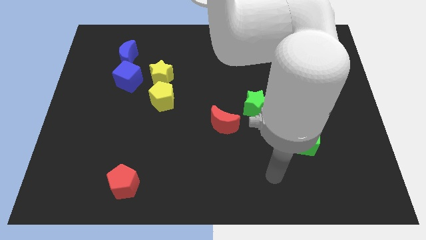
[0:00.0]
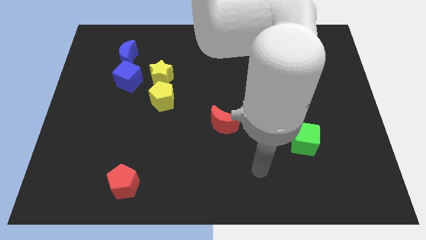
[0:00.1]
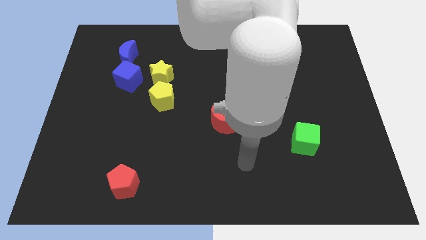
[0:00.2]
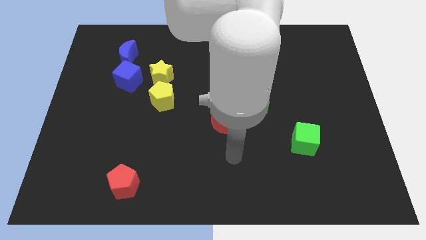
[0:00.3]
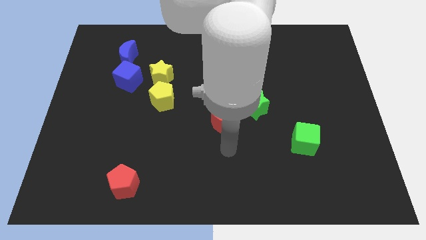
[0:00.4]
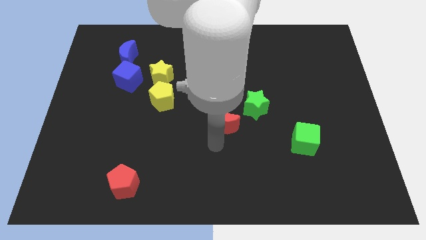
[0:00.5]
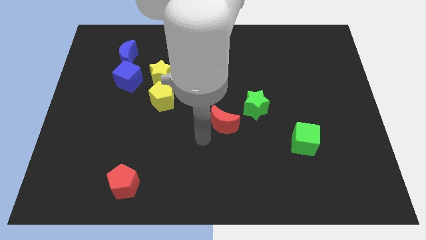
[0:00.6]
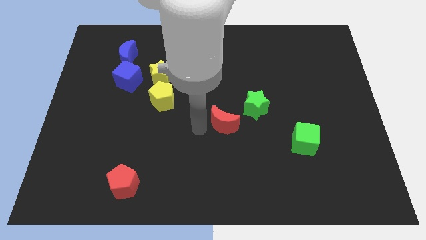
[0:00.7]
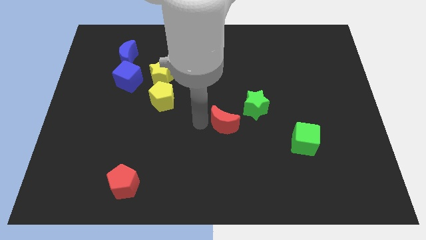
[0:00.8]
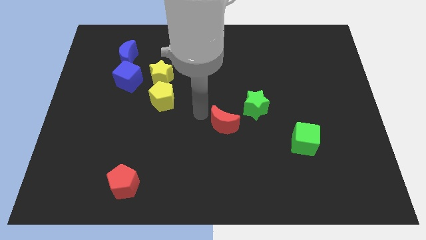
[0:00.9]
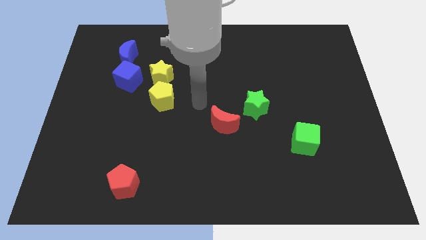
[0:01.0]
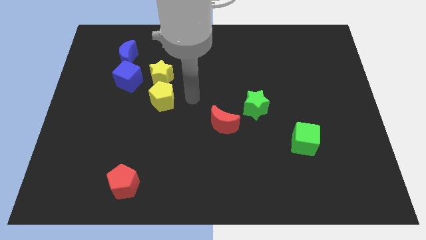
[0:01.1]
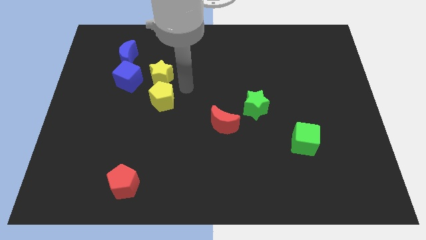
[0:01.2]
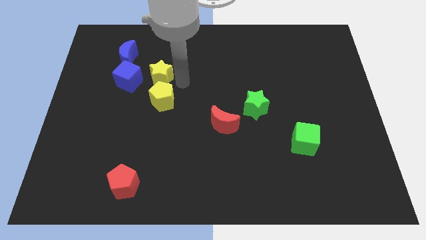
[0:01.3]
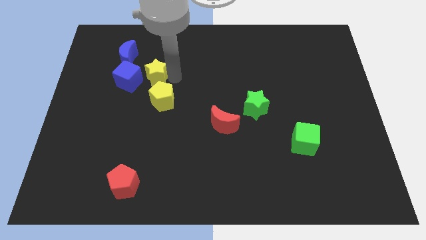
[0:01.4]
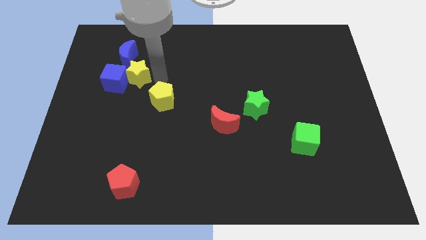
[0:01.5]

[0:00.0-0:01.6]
move the yellow pentagon away from the yellow star

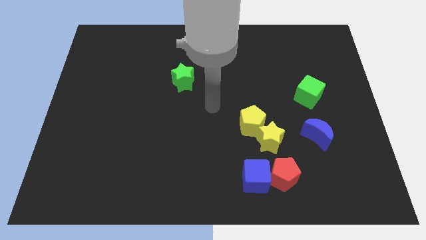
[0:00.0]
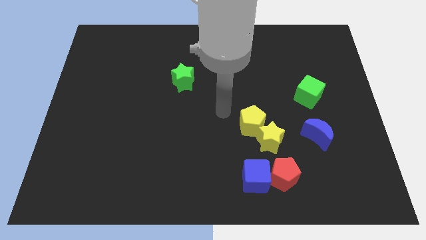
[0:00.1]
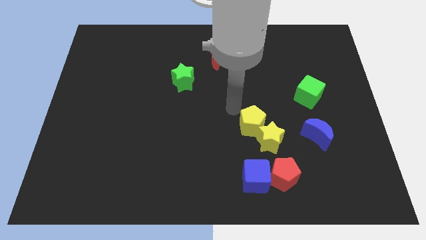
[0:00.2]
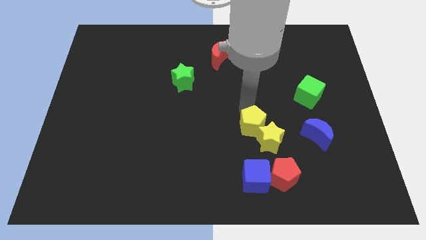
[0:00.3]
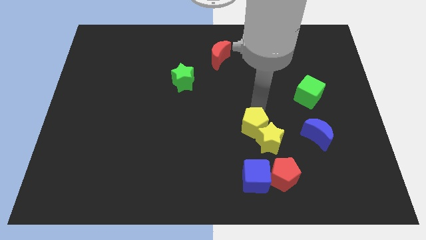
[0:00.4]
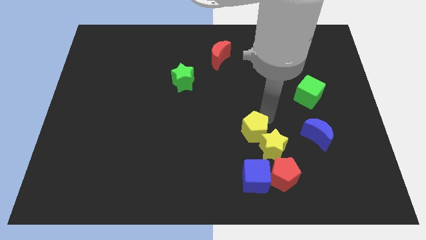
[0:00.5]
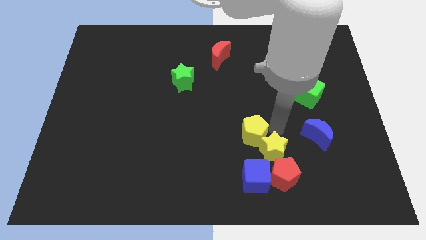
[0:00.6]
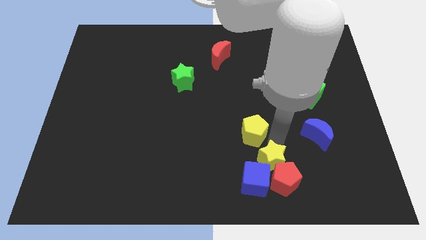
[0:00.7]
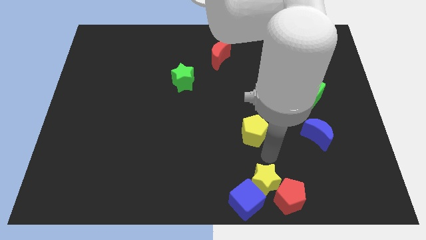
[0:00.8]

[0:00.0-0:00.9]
pull the yellow pentagon apart from the yellow star

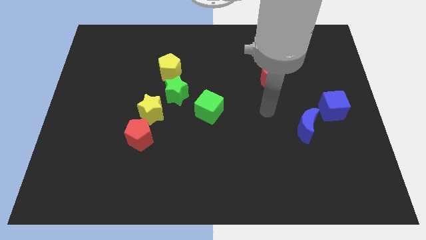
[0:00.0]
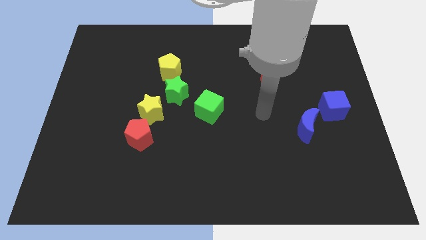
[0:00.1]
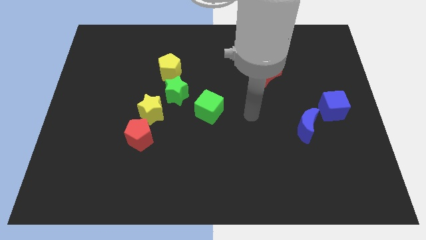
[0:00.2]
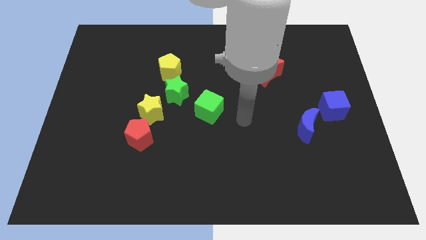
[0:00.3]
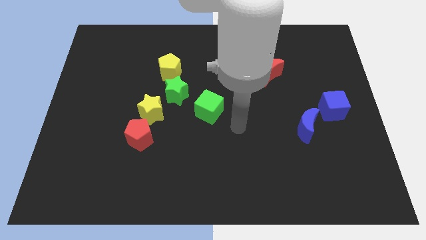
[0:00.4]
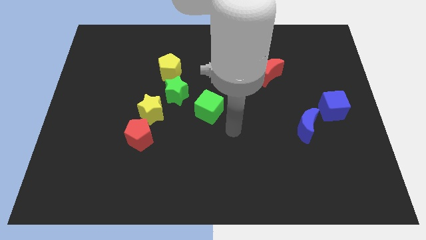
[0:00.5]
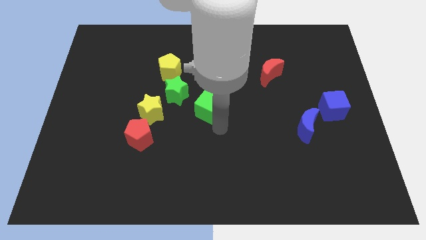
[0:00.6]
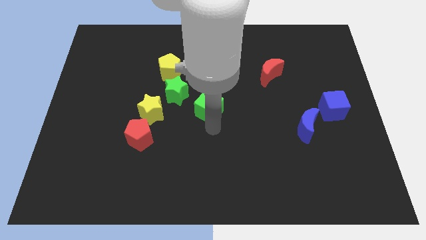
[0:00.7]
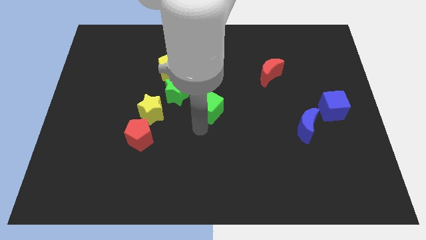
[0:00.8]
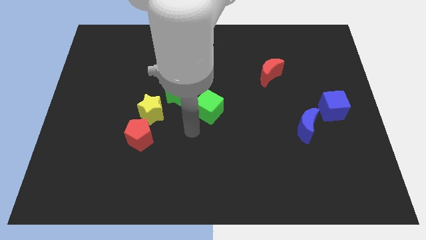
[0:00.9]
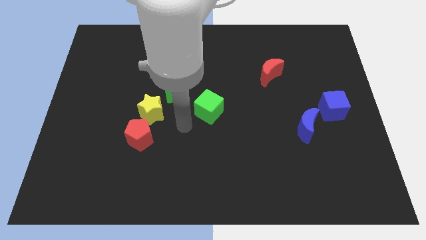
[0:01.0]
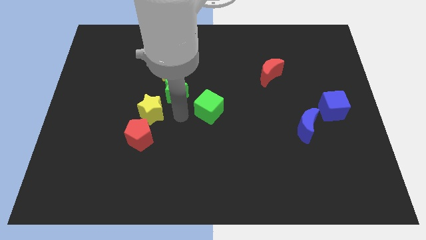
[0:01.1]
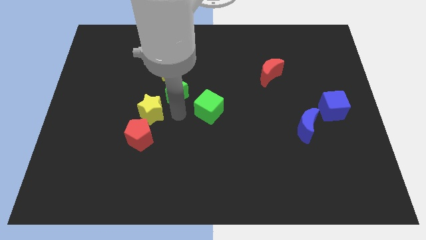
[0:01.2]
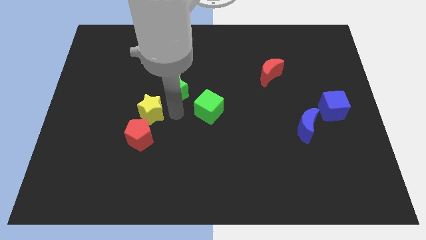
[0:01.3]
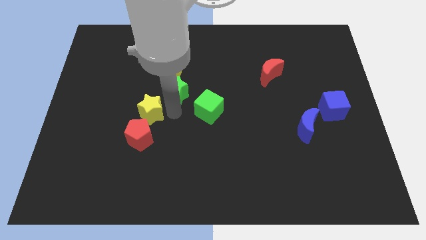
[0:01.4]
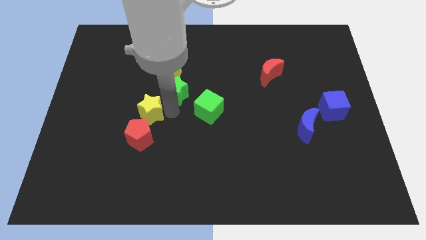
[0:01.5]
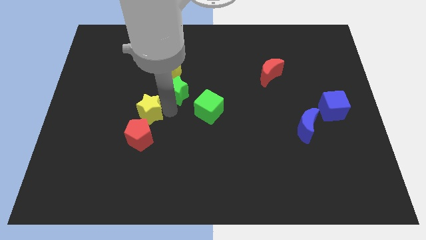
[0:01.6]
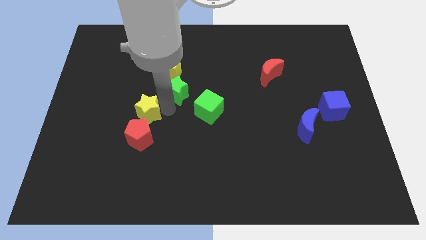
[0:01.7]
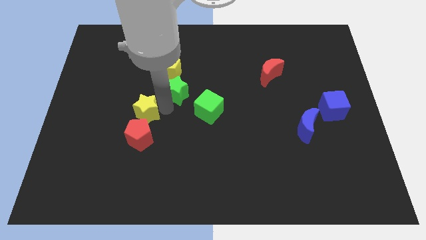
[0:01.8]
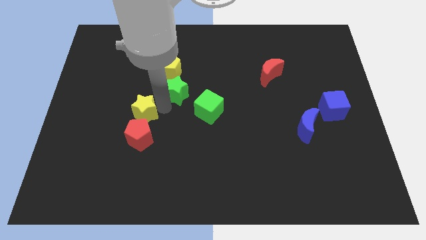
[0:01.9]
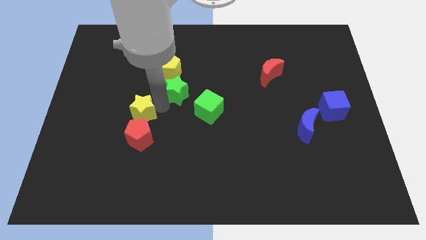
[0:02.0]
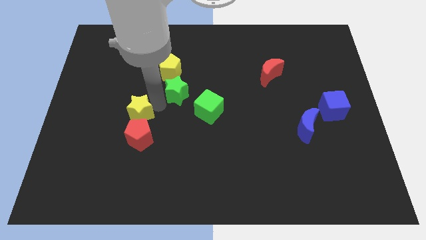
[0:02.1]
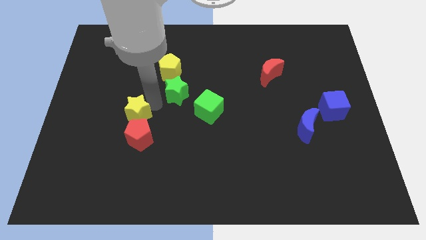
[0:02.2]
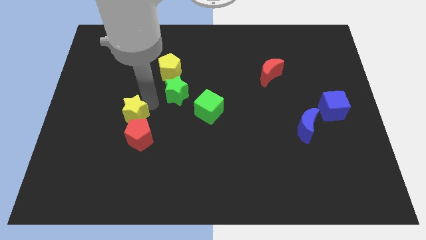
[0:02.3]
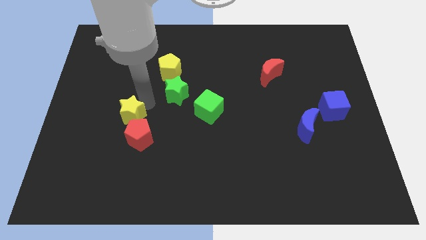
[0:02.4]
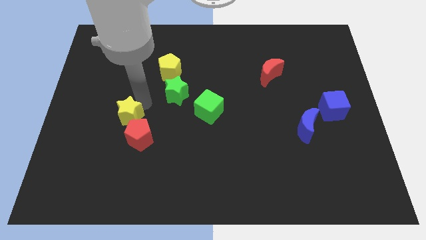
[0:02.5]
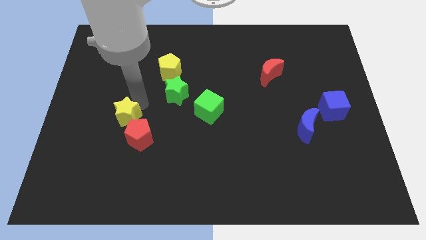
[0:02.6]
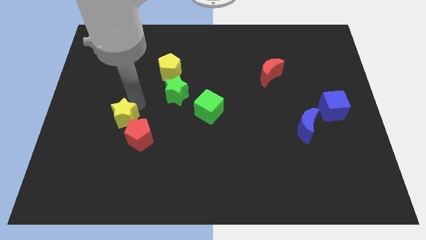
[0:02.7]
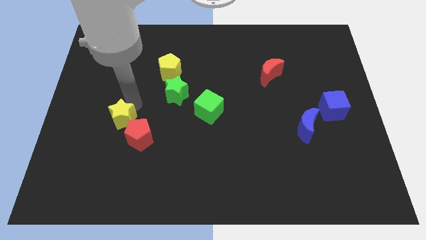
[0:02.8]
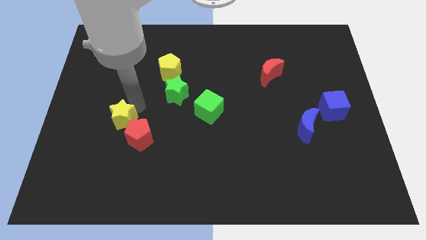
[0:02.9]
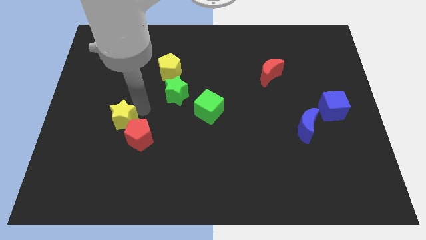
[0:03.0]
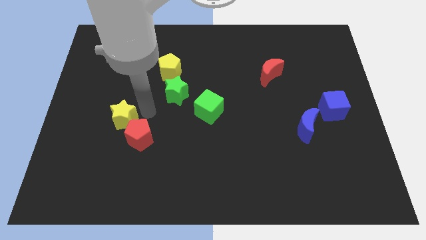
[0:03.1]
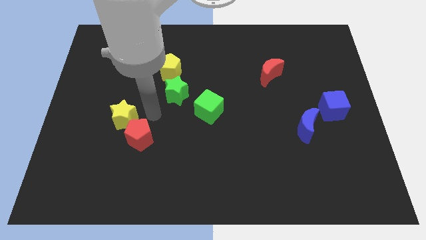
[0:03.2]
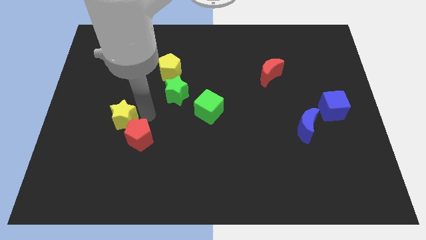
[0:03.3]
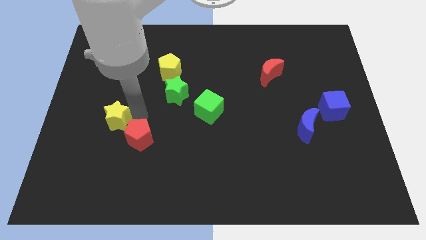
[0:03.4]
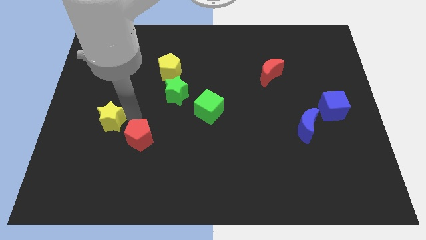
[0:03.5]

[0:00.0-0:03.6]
pull the yellow star apart from the green star and red pentagon

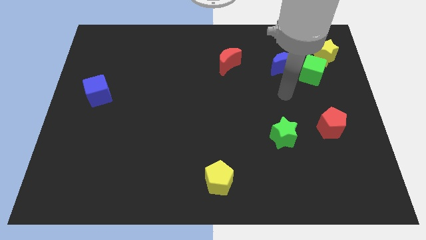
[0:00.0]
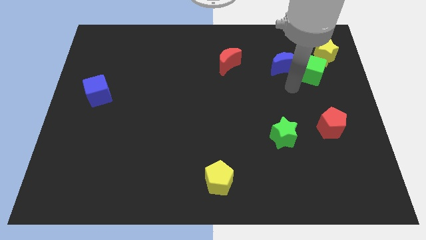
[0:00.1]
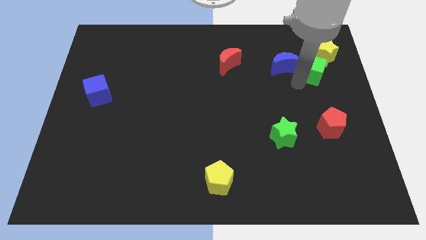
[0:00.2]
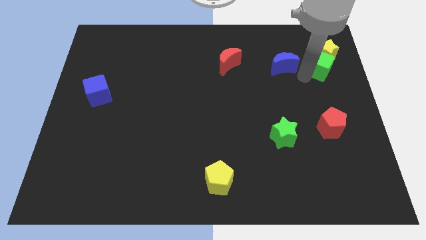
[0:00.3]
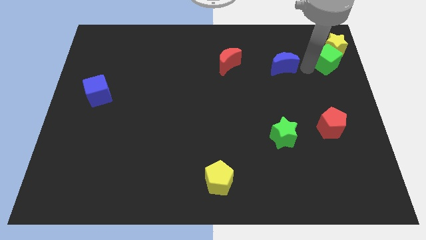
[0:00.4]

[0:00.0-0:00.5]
separate the blue moon from the green cube

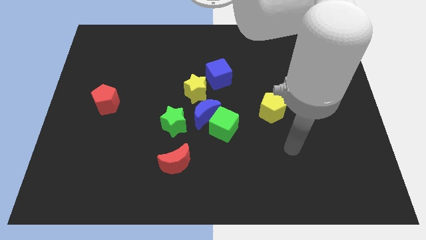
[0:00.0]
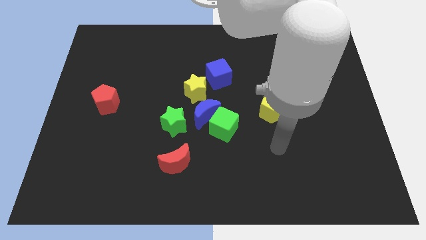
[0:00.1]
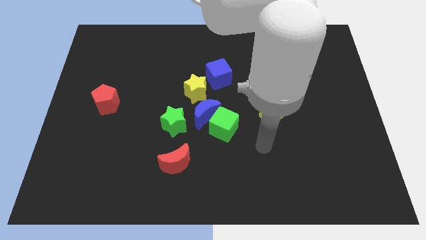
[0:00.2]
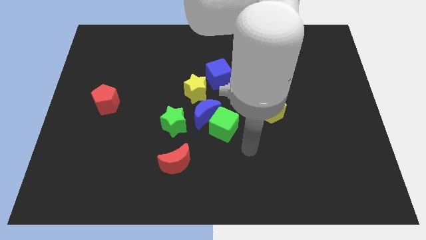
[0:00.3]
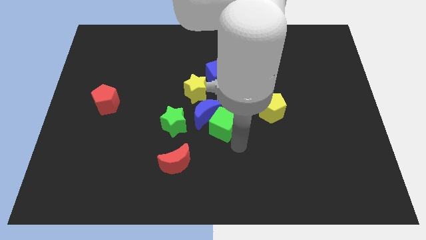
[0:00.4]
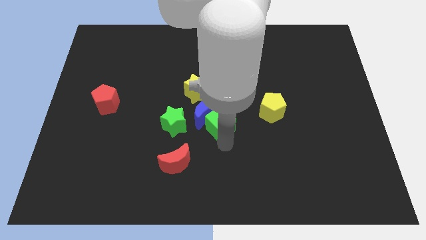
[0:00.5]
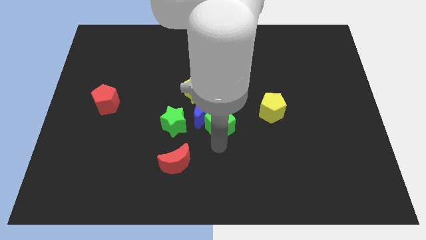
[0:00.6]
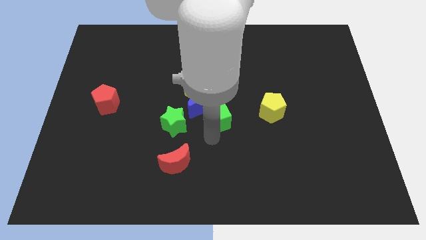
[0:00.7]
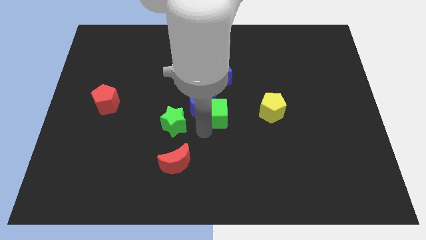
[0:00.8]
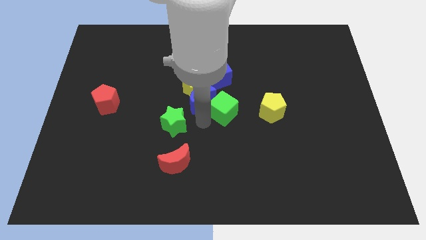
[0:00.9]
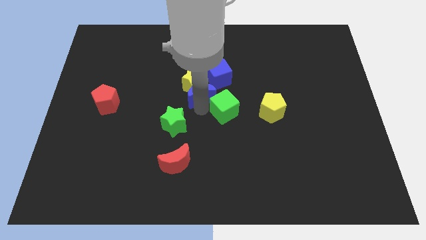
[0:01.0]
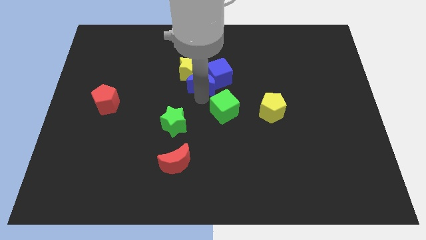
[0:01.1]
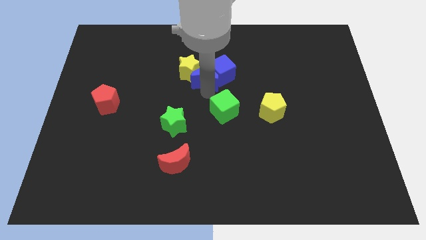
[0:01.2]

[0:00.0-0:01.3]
move the green cube away from the blue moon

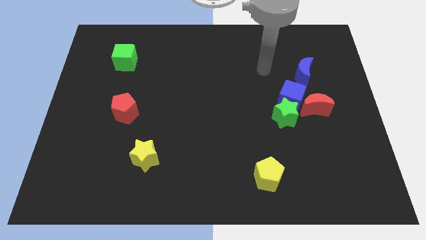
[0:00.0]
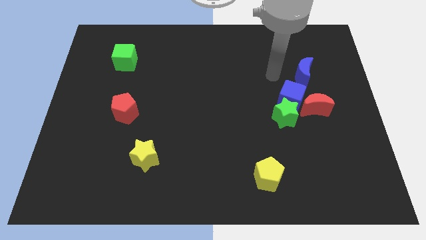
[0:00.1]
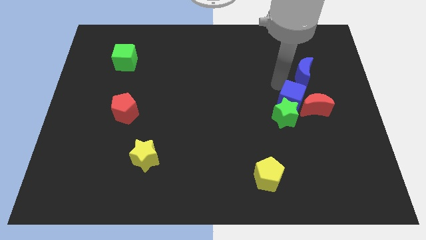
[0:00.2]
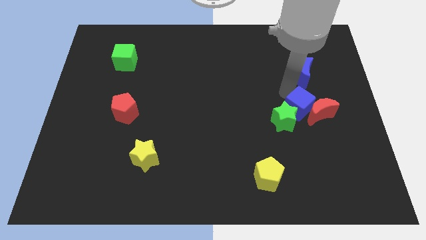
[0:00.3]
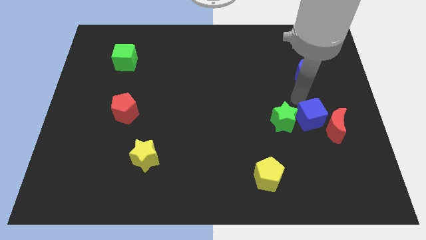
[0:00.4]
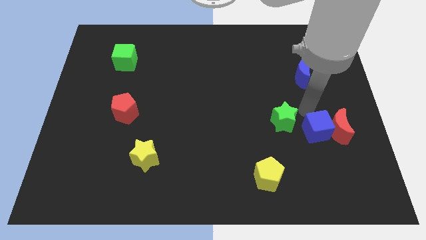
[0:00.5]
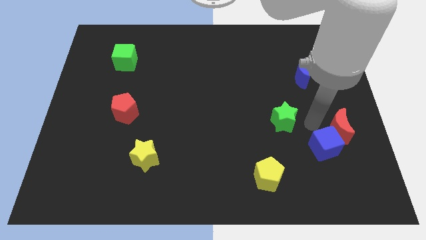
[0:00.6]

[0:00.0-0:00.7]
separate the green star from the blue cube and red moon

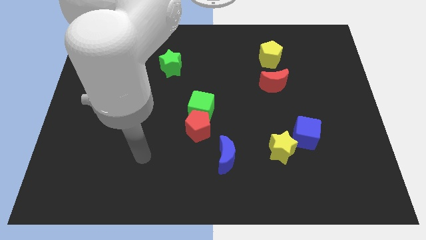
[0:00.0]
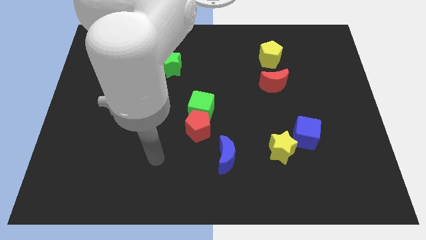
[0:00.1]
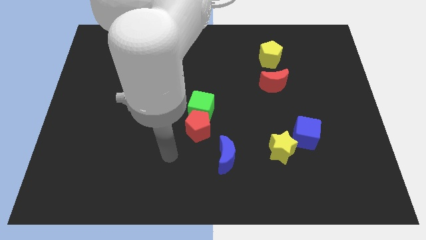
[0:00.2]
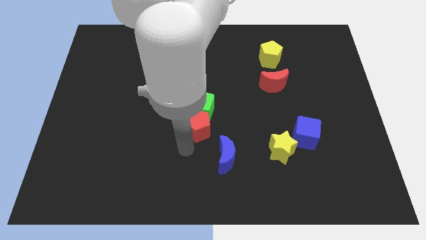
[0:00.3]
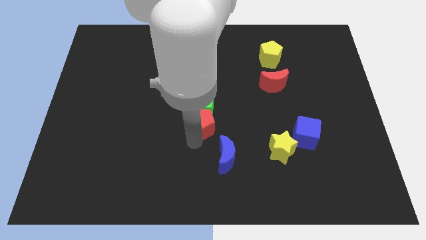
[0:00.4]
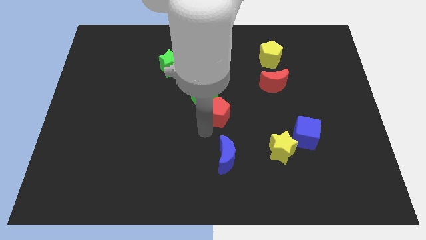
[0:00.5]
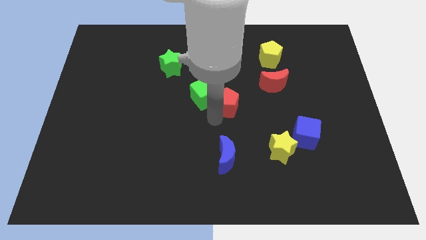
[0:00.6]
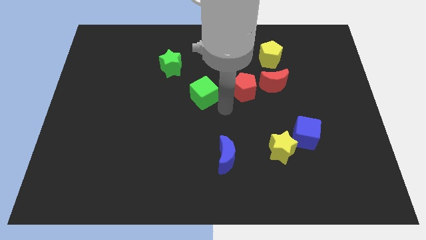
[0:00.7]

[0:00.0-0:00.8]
separate the green cube from the red pentagon

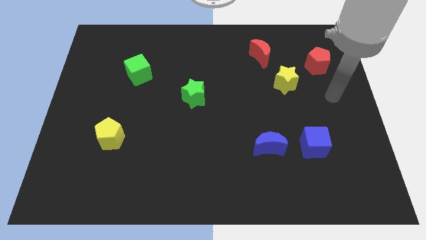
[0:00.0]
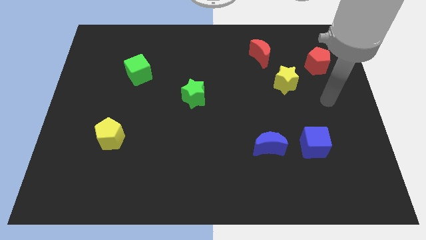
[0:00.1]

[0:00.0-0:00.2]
separate the blue moon from the blue cube
